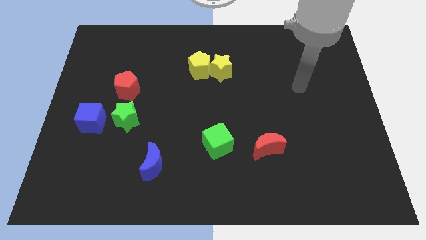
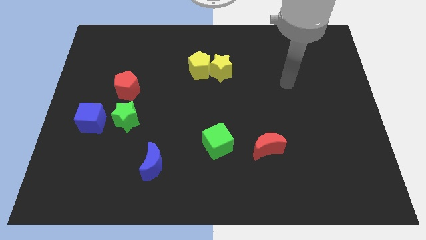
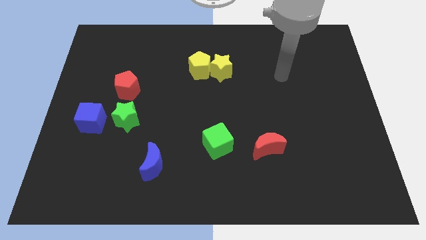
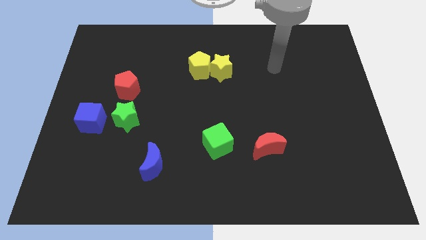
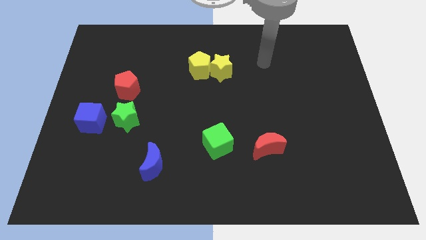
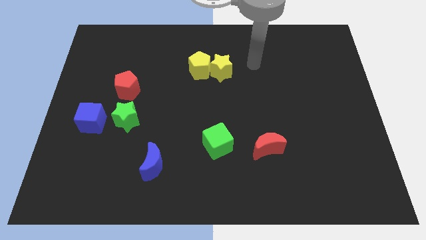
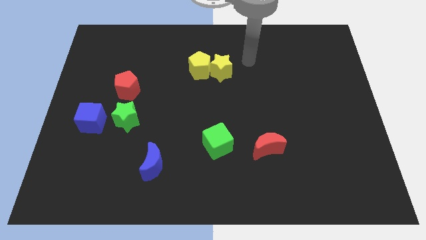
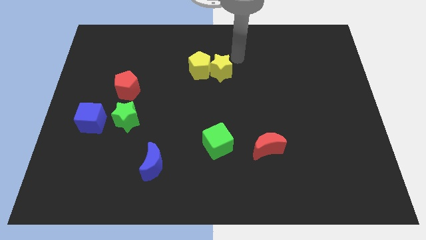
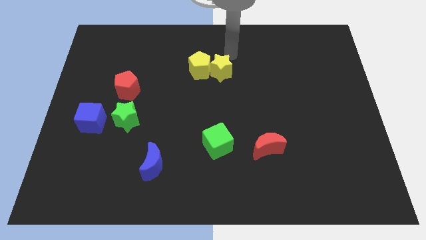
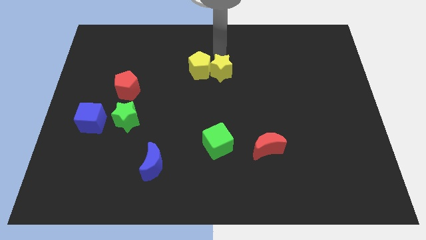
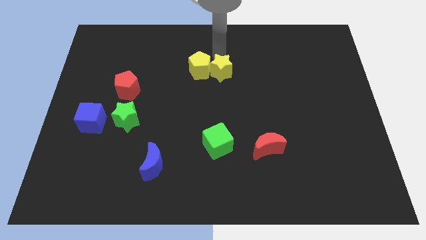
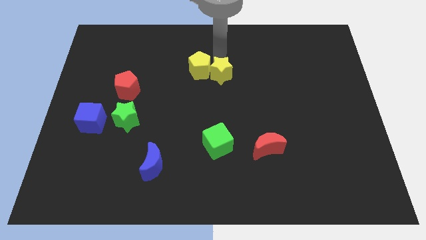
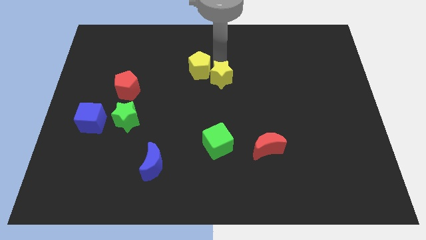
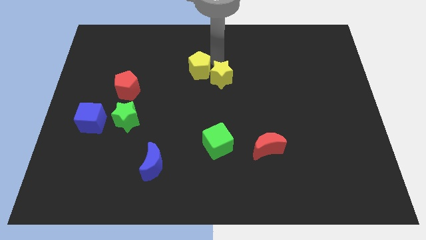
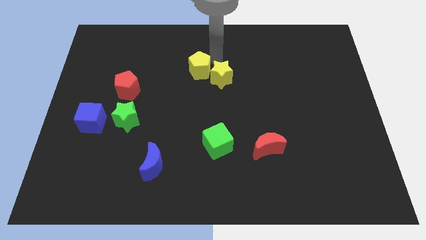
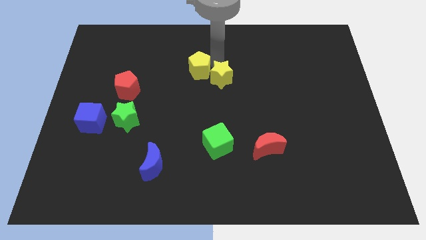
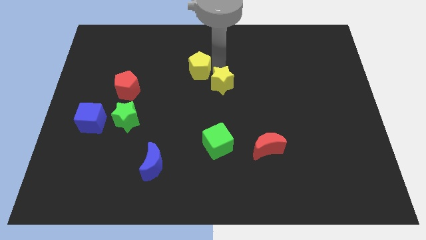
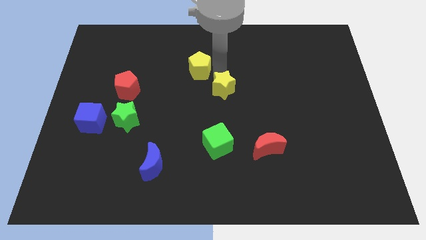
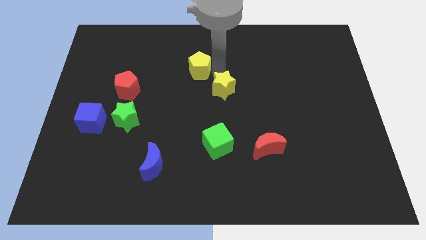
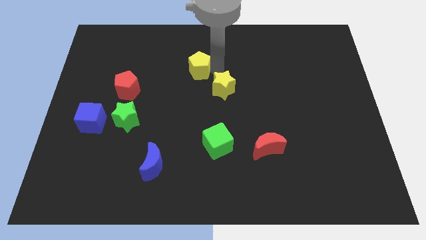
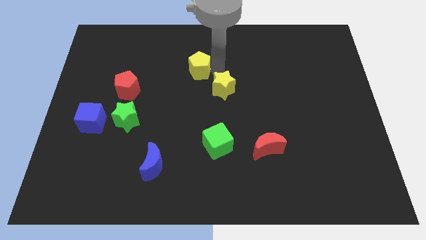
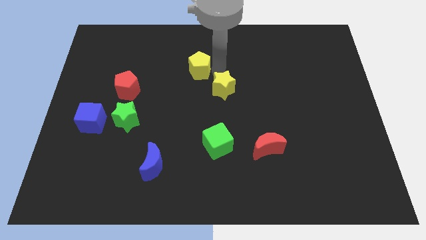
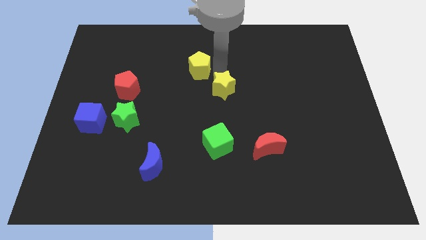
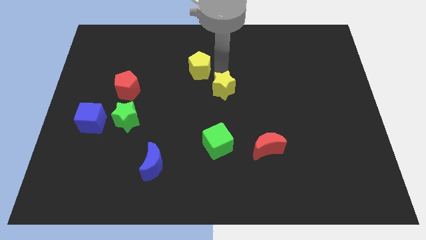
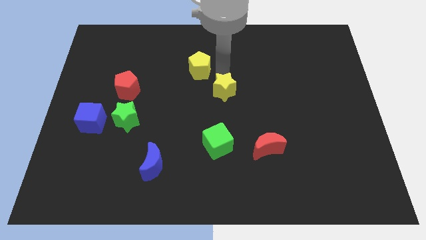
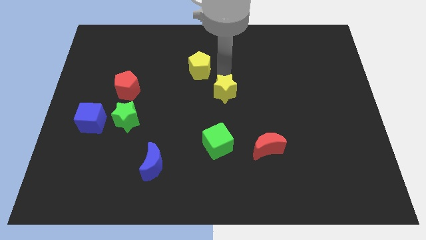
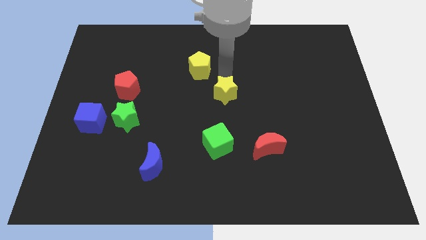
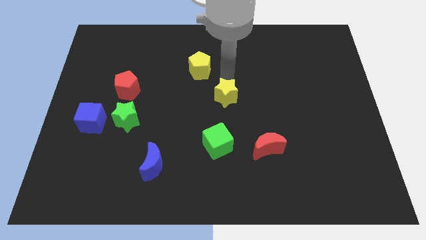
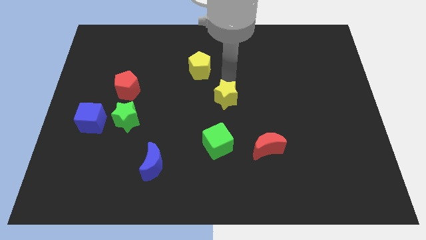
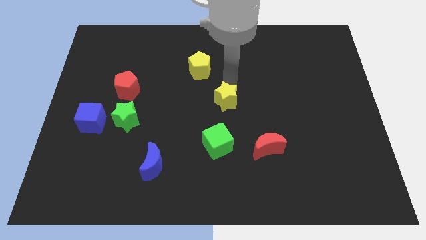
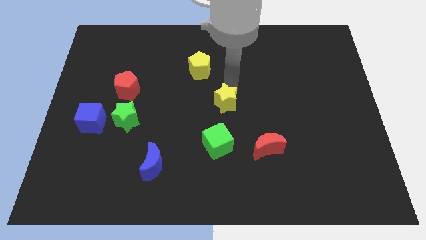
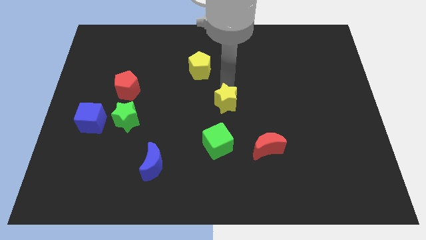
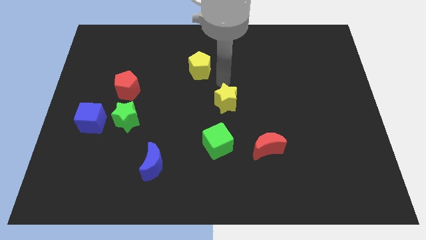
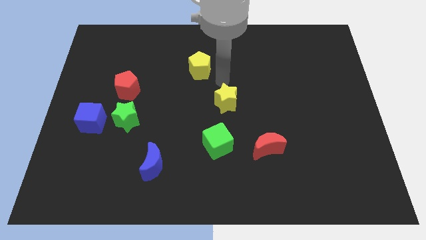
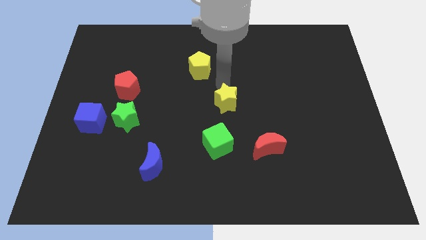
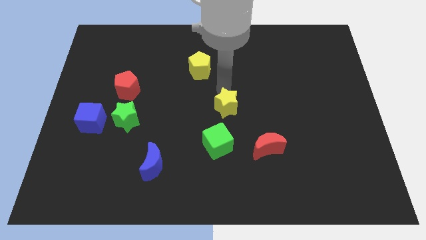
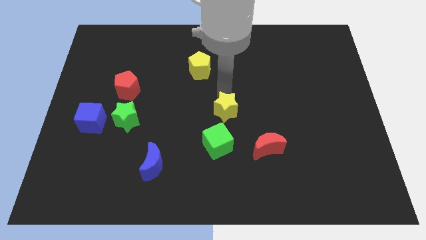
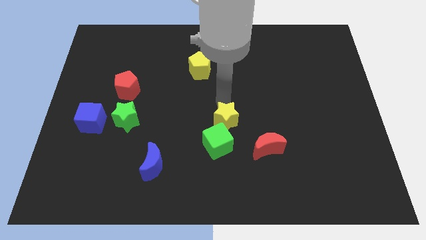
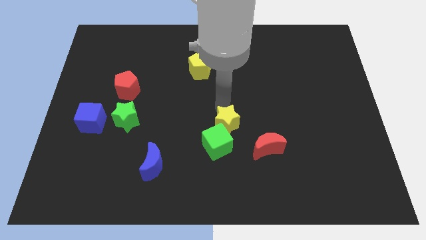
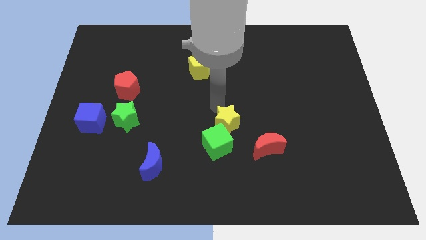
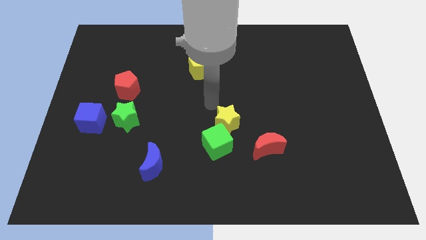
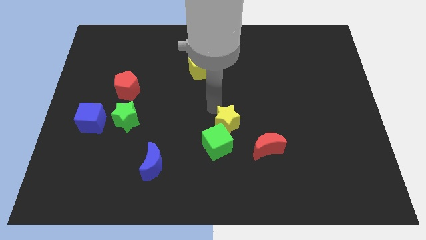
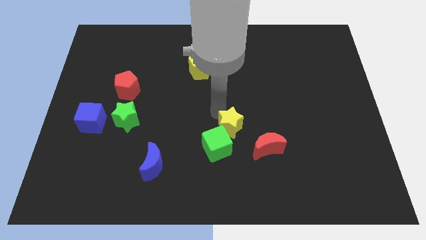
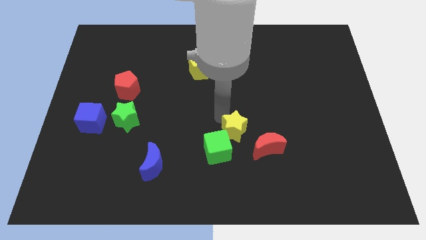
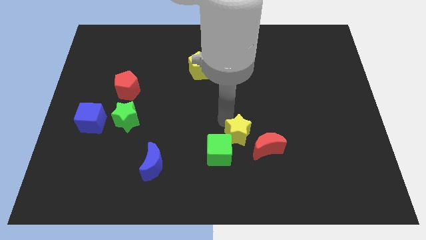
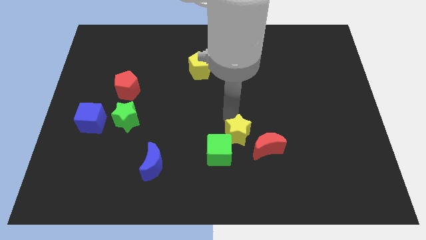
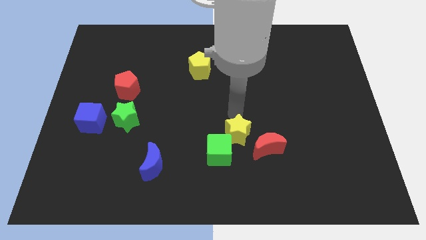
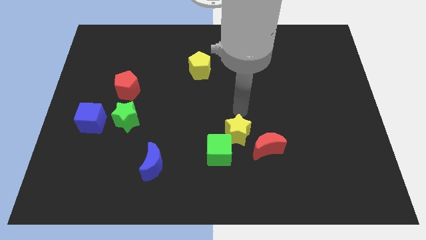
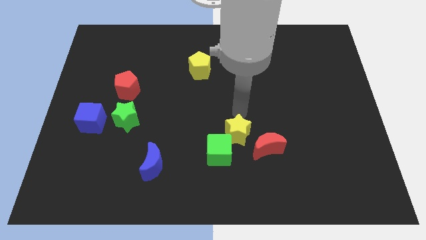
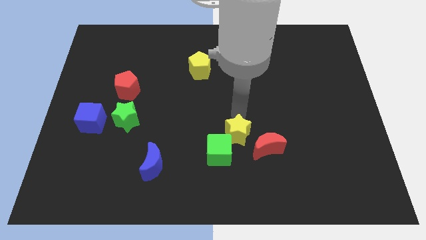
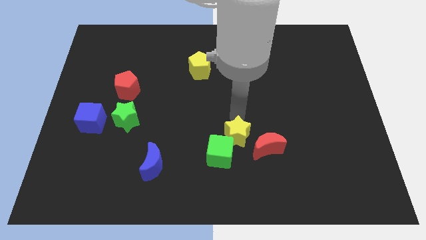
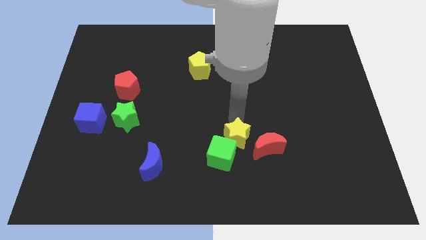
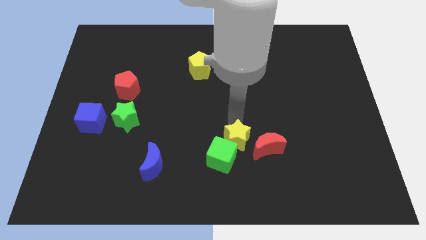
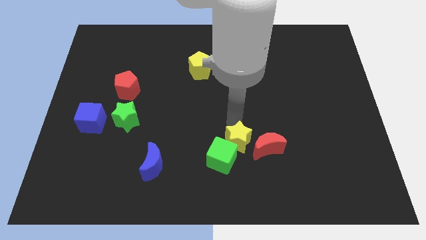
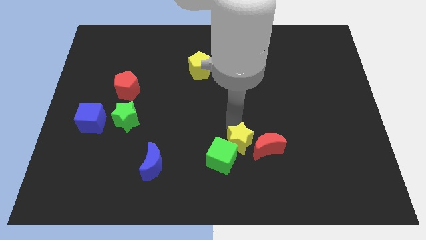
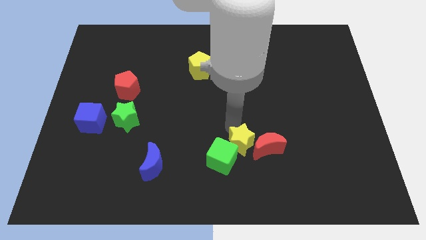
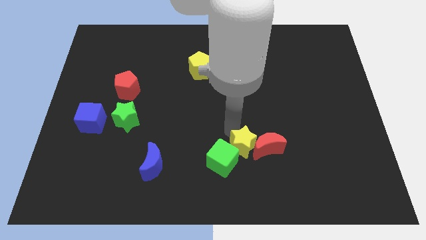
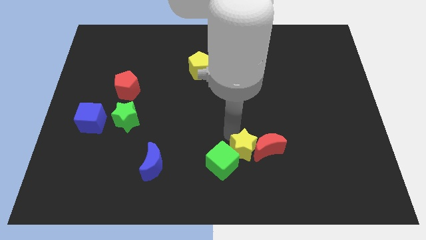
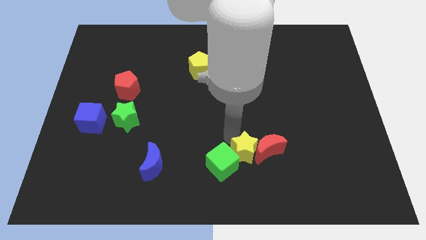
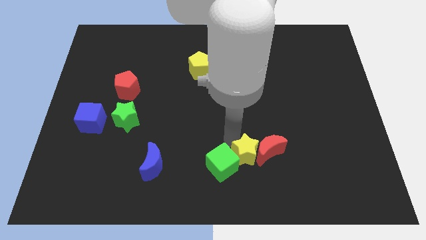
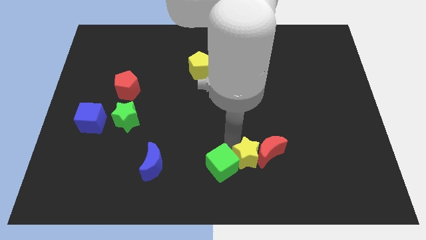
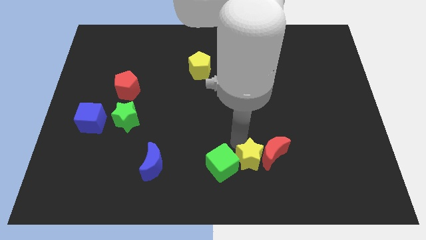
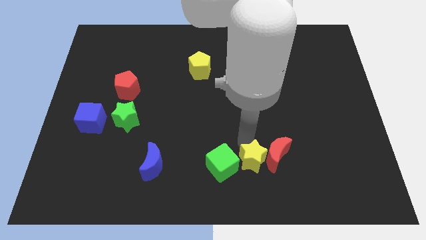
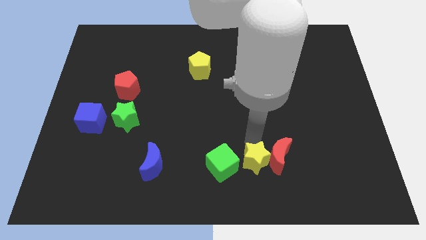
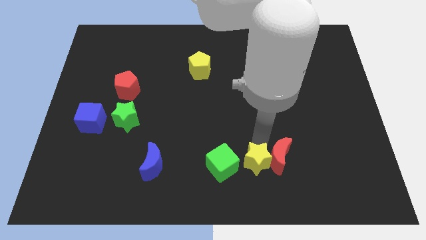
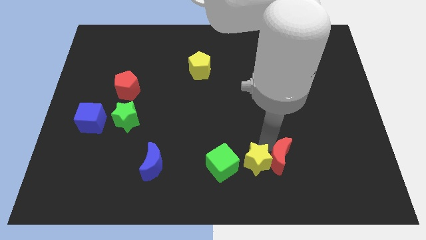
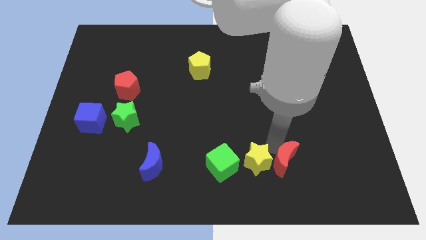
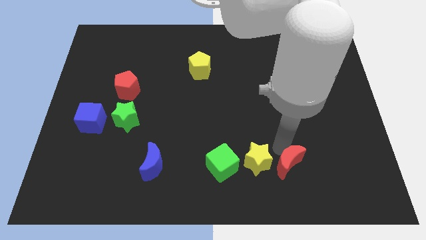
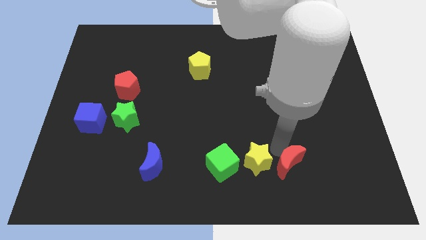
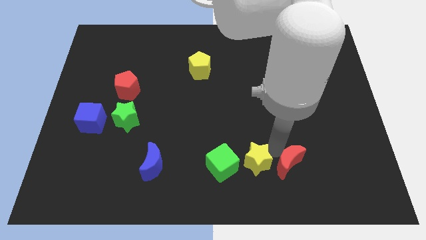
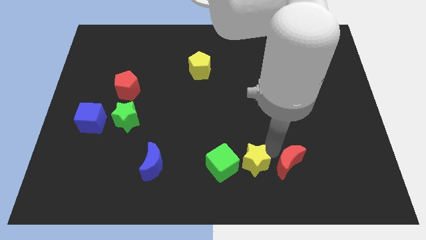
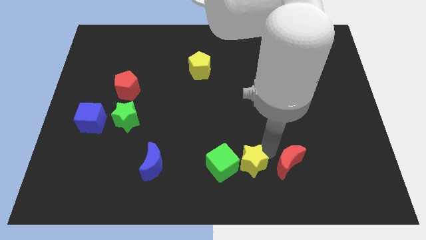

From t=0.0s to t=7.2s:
push the yellow star to the bottom
